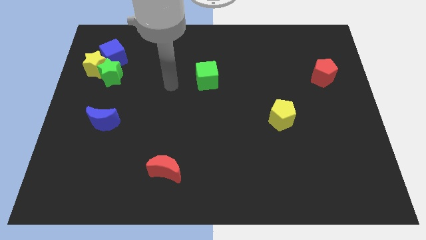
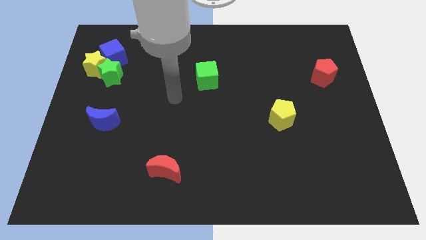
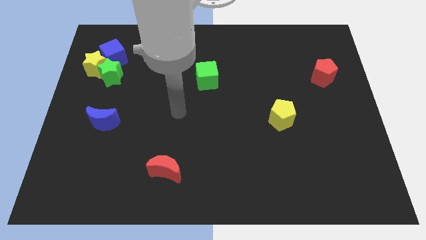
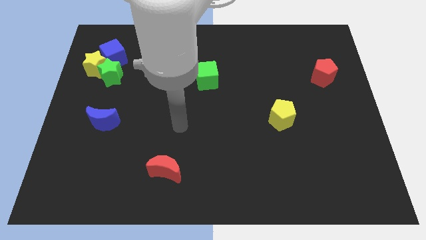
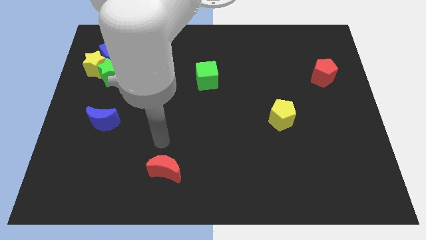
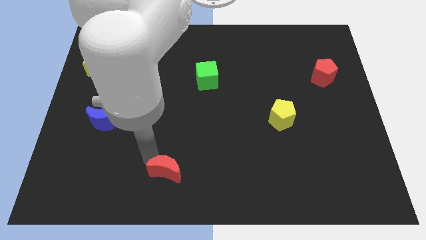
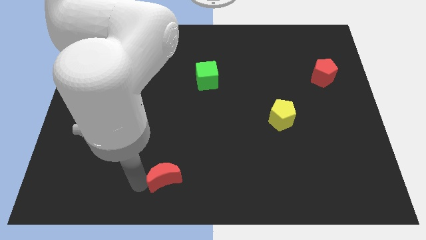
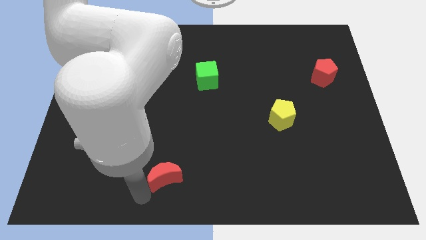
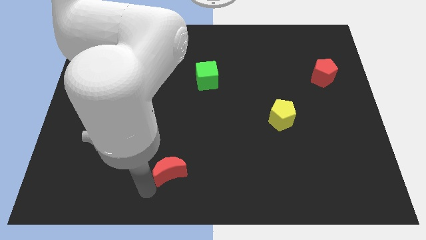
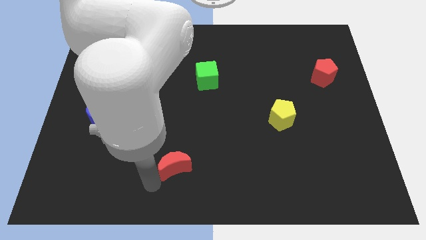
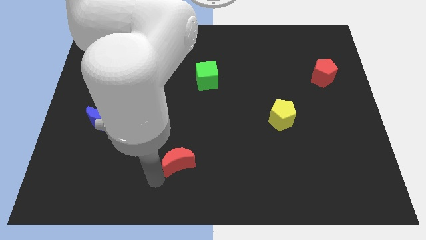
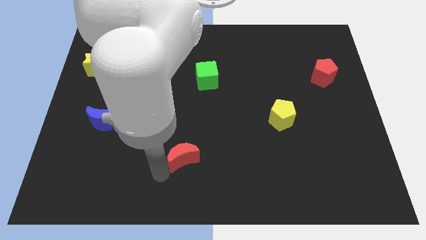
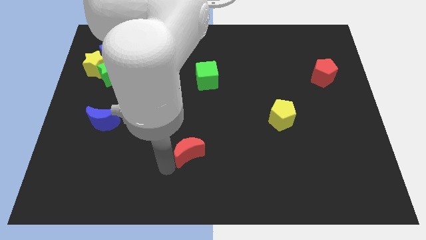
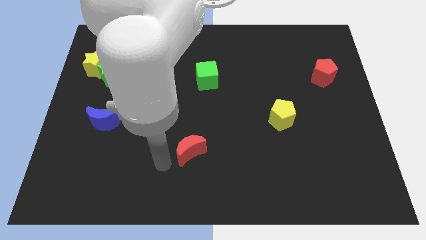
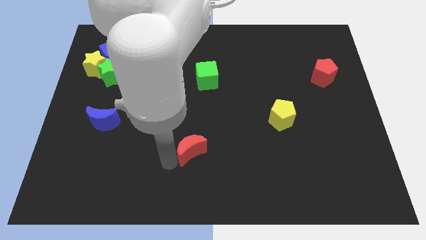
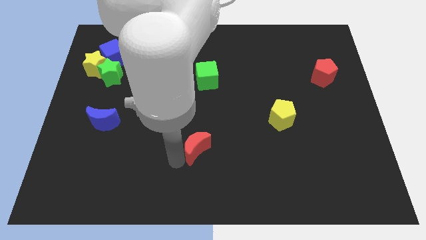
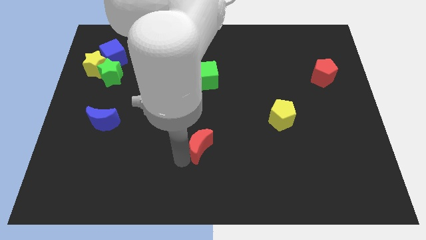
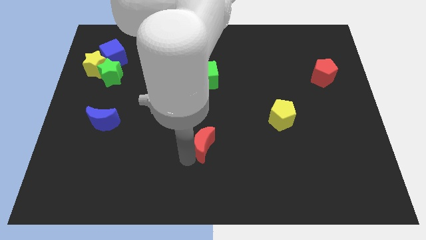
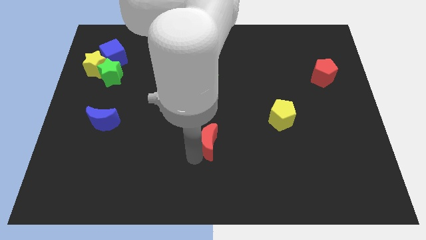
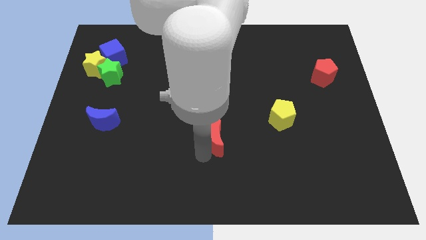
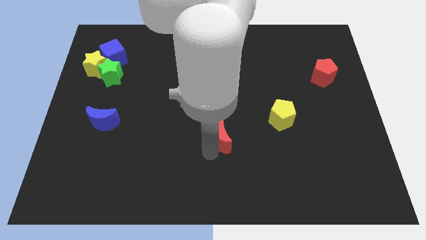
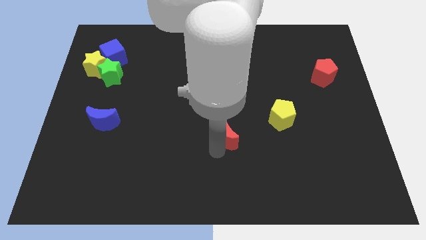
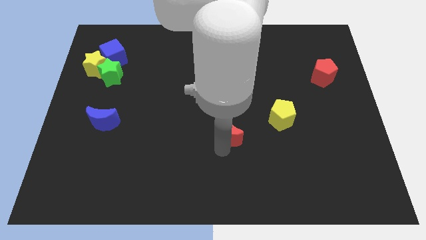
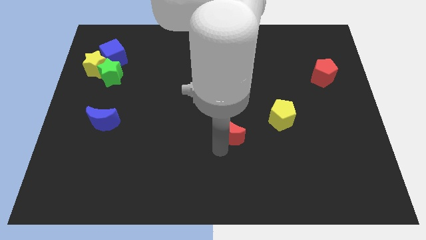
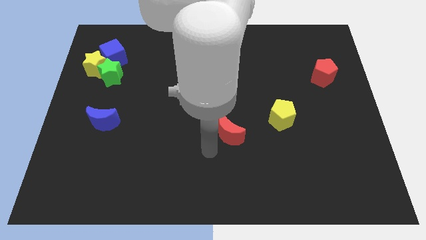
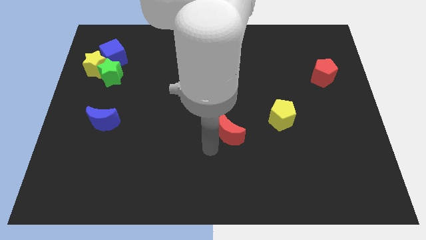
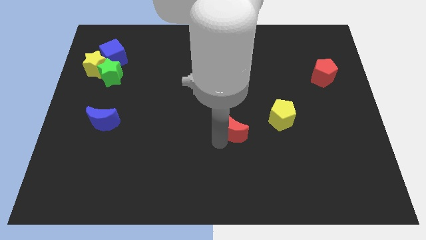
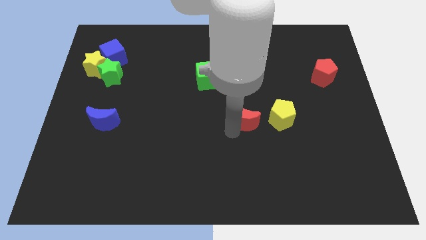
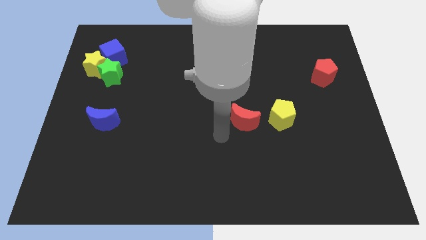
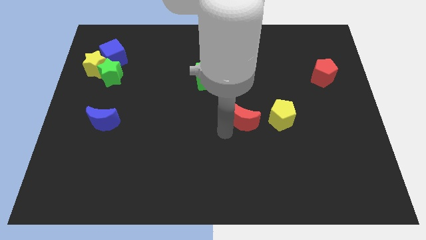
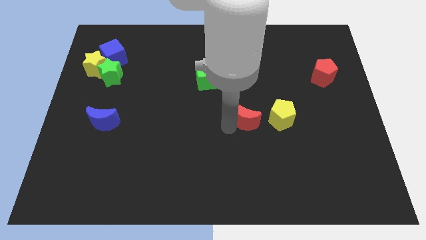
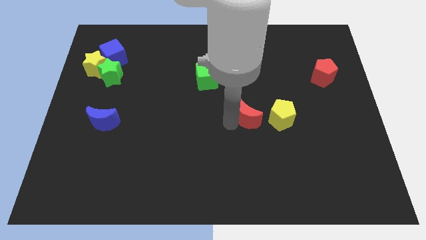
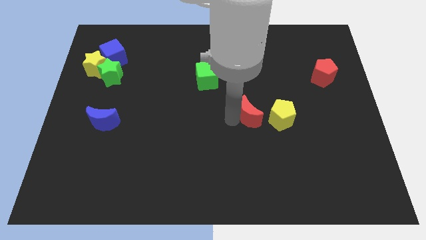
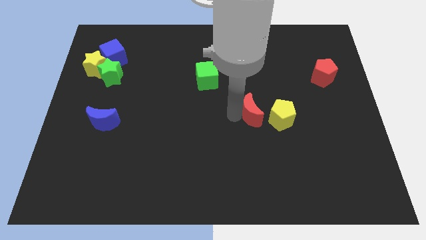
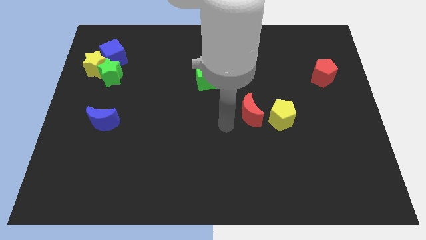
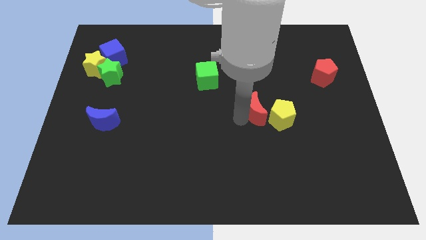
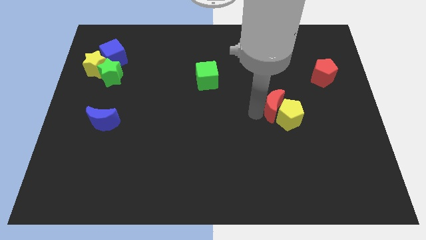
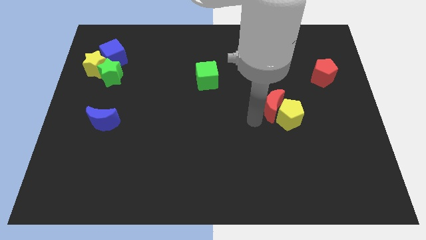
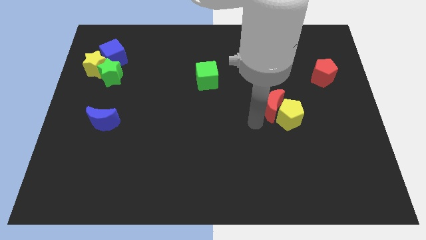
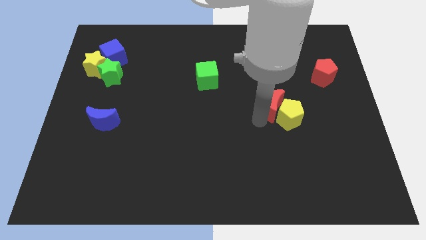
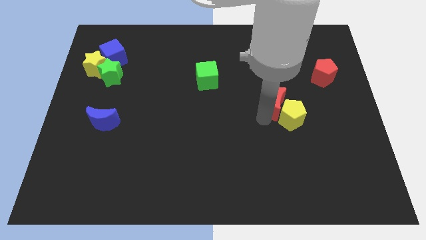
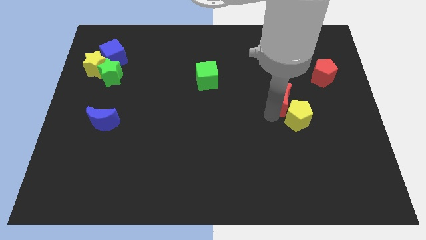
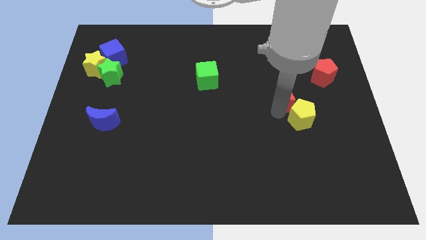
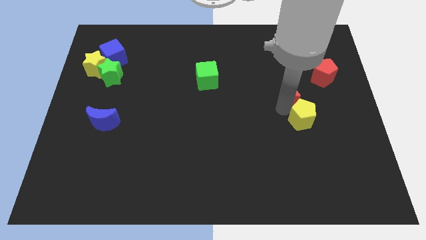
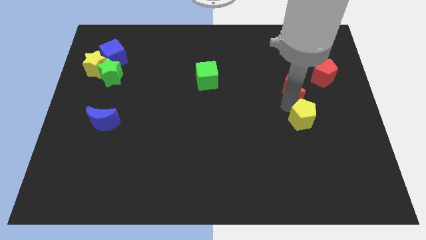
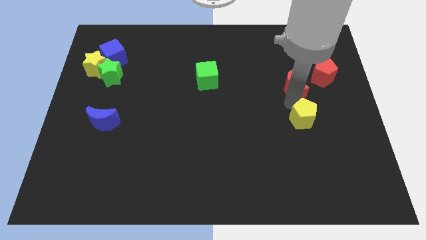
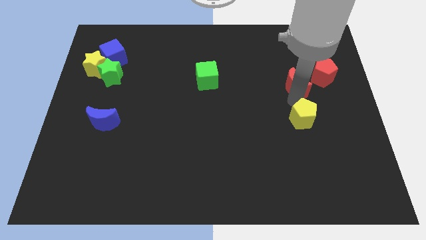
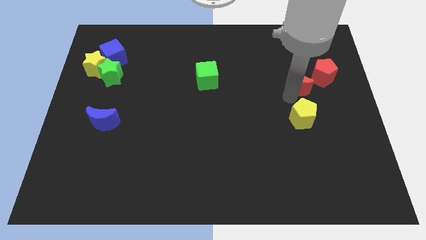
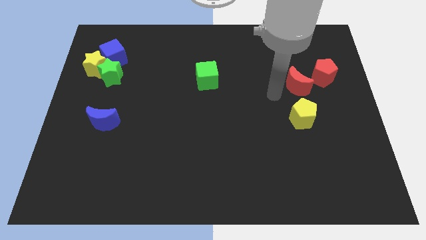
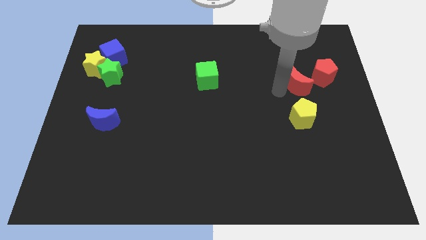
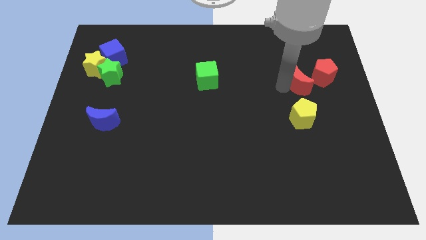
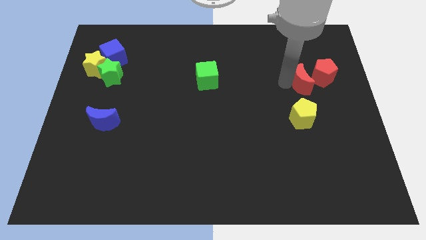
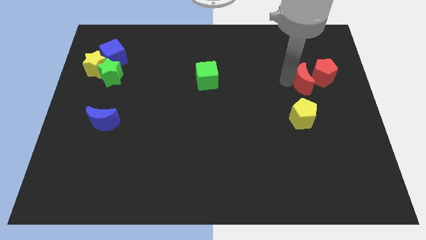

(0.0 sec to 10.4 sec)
move the red moon close to the red pentagon

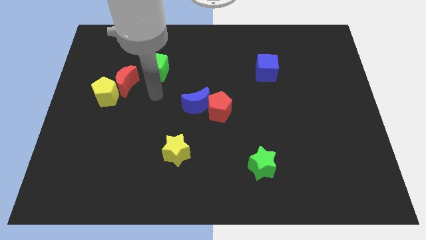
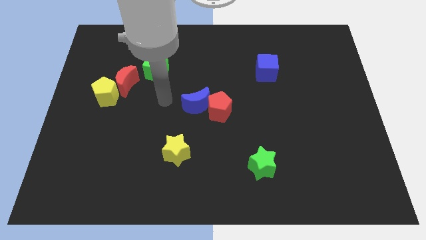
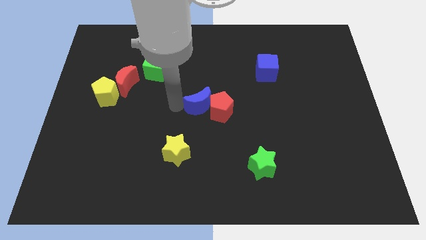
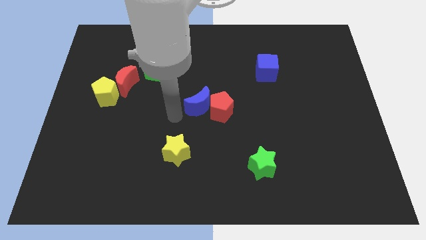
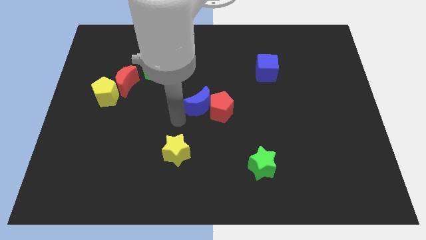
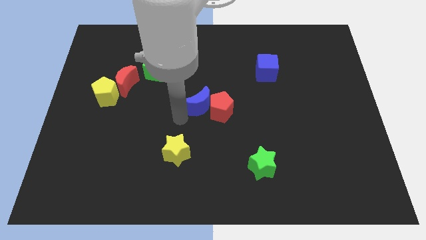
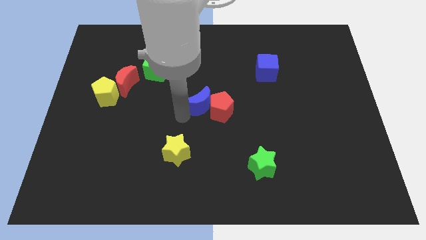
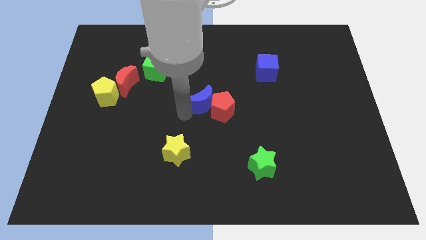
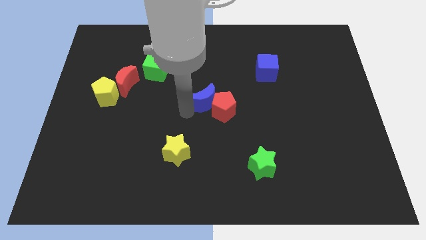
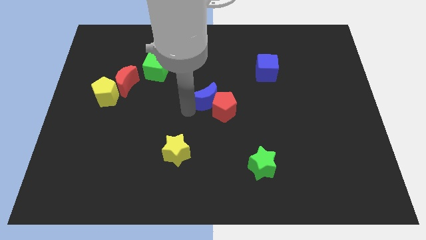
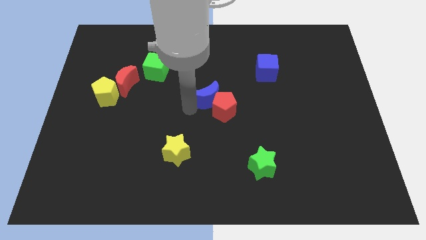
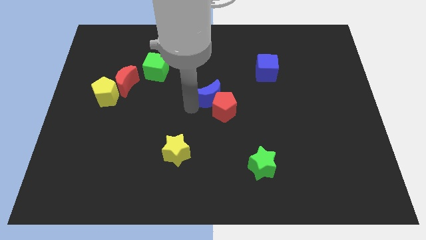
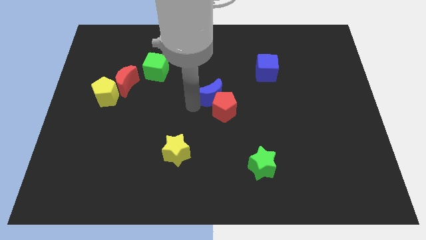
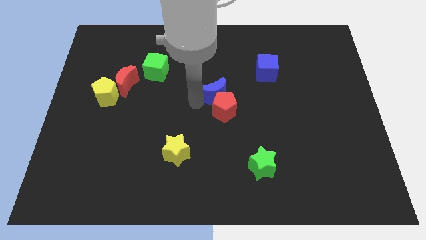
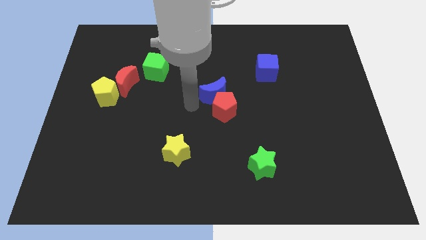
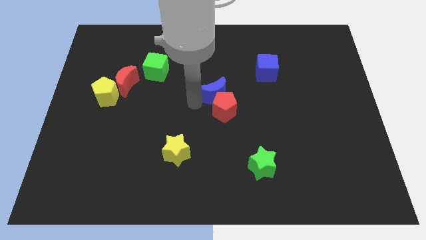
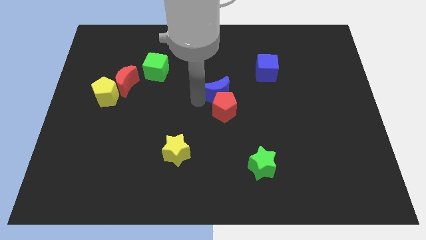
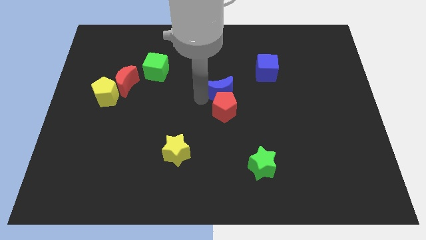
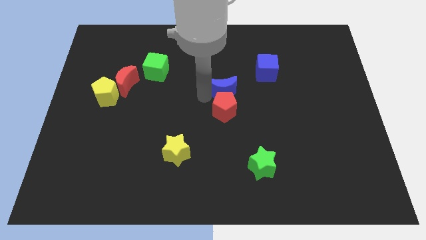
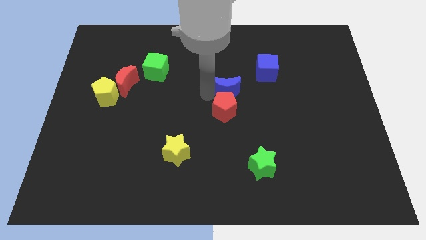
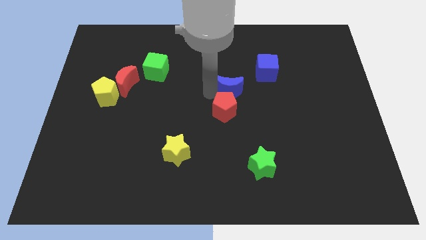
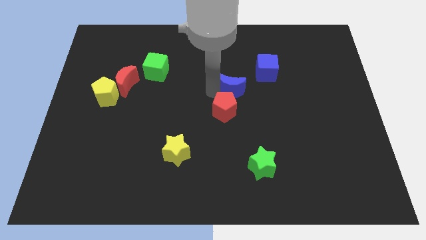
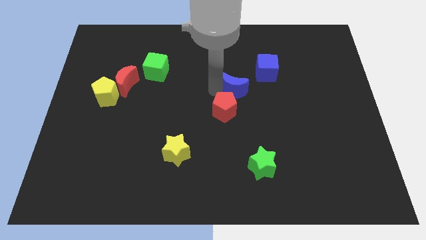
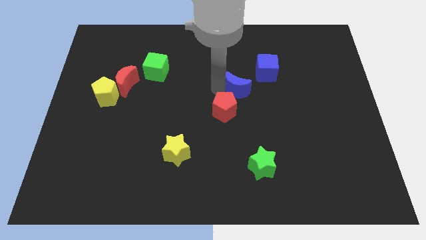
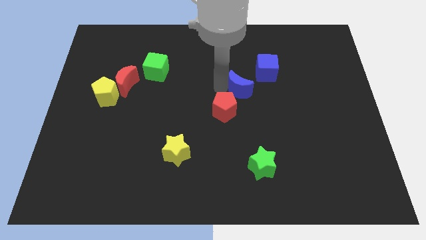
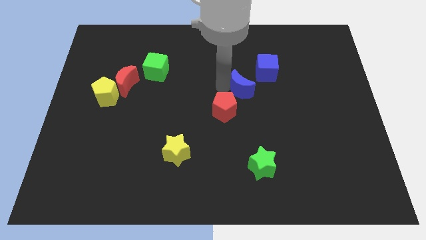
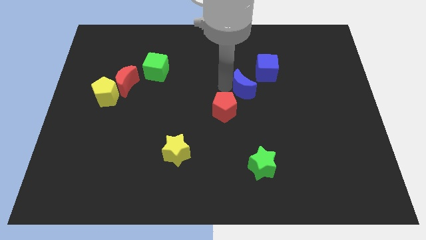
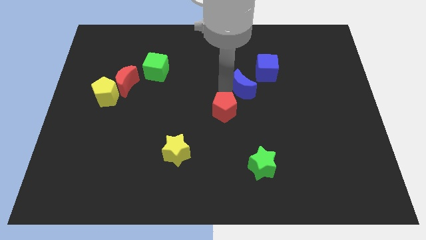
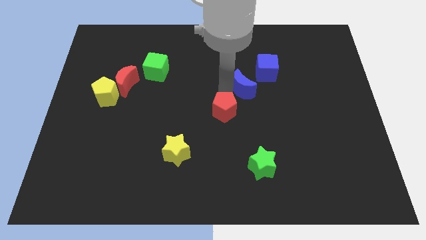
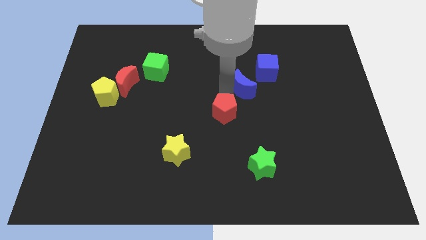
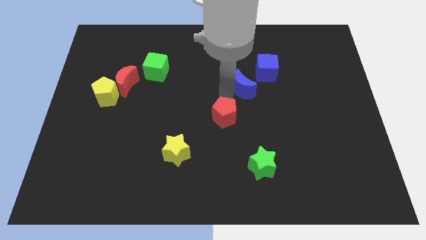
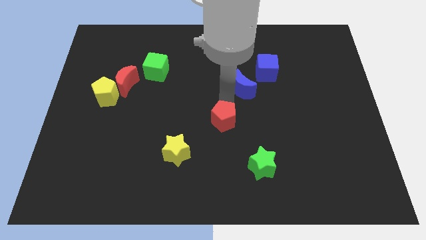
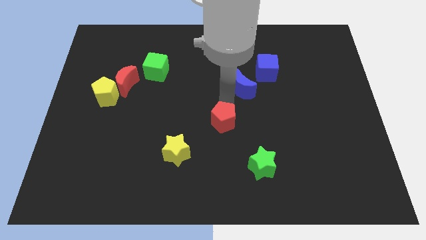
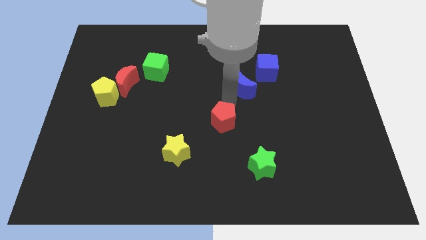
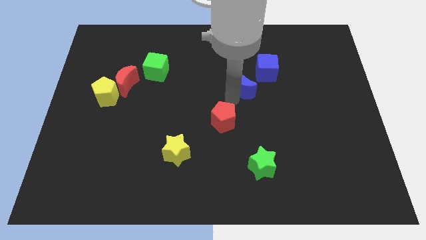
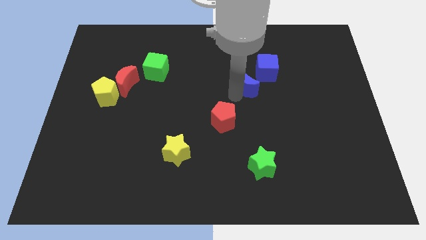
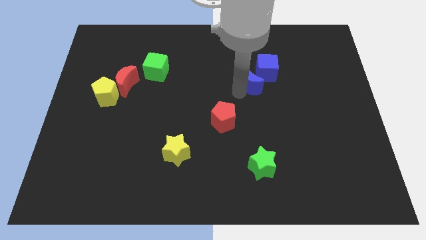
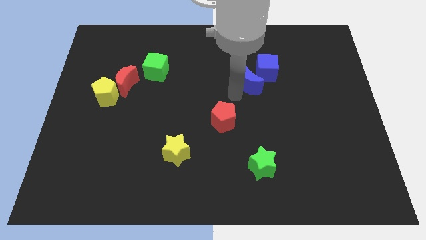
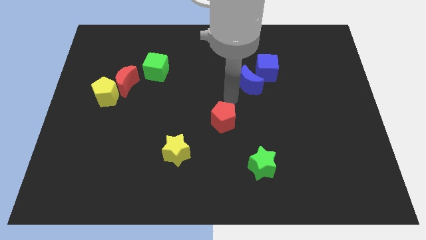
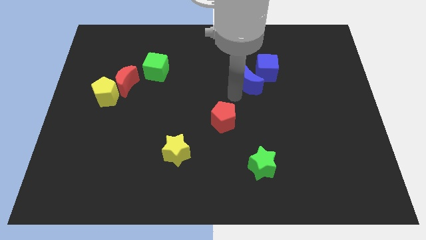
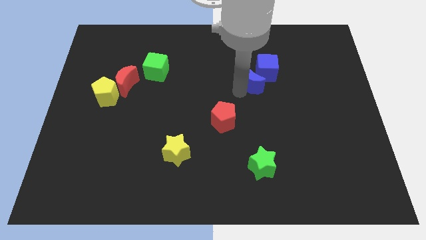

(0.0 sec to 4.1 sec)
put the blue moon close to the blue cube
